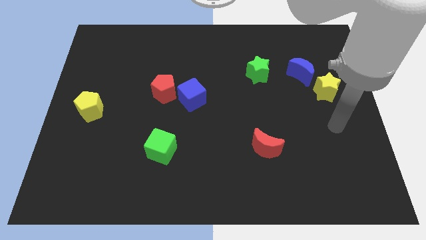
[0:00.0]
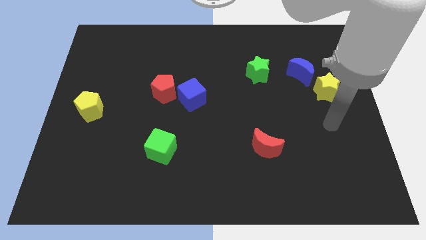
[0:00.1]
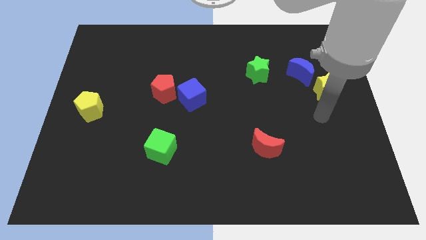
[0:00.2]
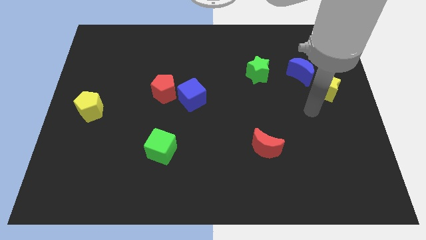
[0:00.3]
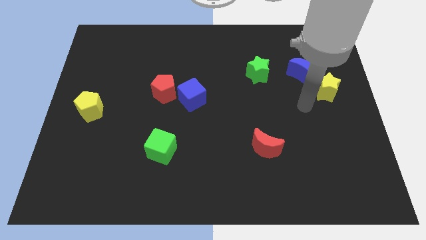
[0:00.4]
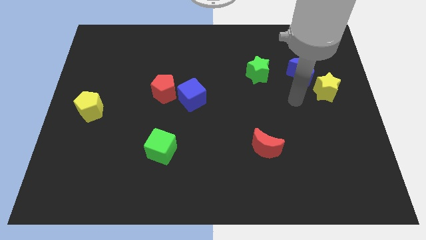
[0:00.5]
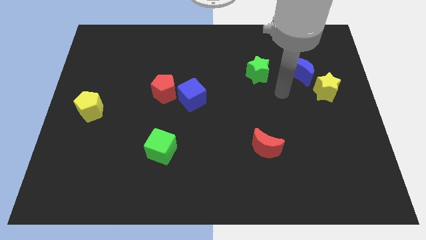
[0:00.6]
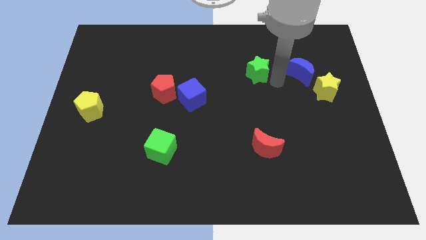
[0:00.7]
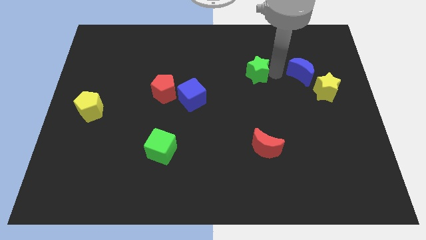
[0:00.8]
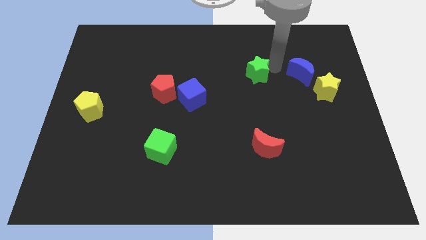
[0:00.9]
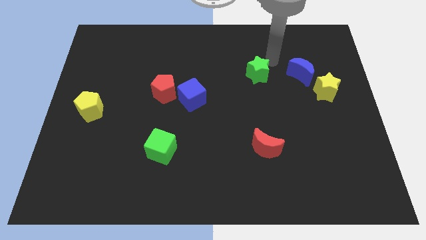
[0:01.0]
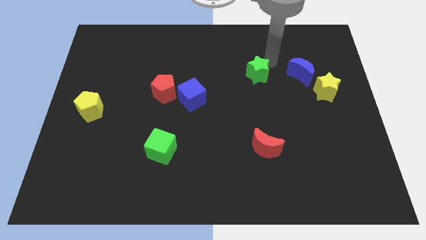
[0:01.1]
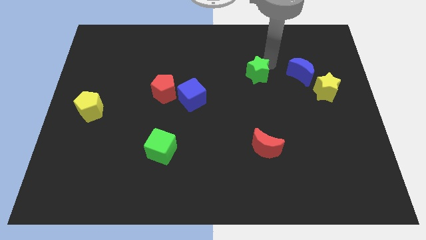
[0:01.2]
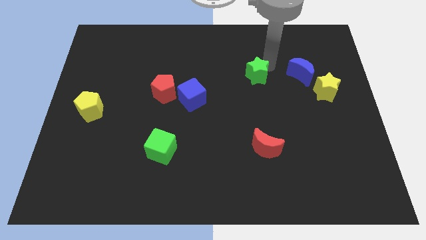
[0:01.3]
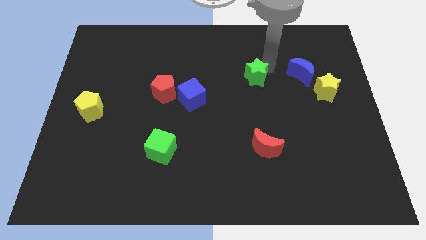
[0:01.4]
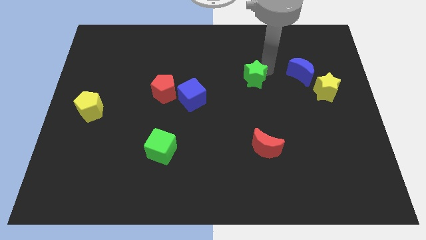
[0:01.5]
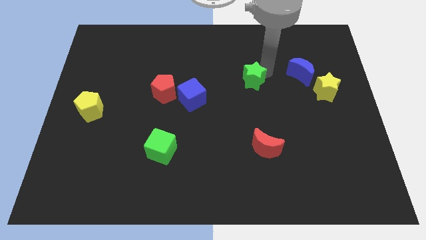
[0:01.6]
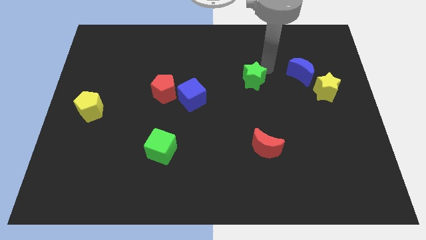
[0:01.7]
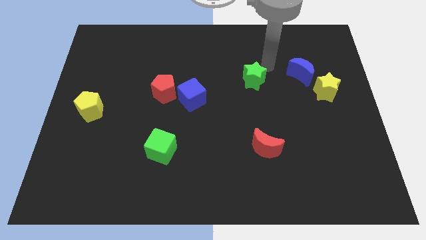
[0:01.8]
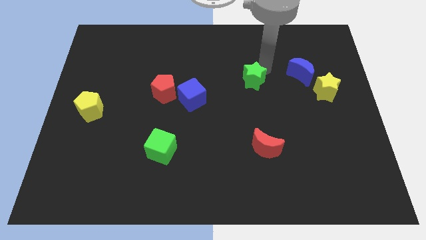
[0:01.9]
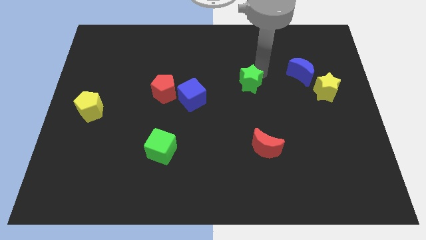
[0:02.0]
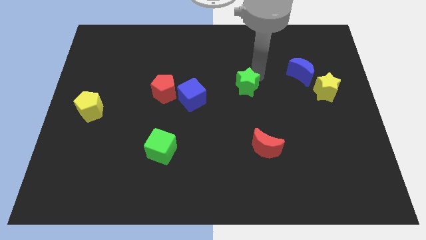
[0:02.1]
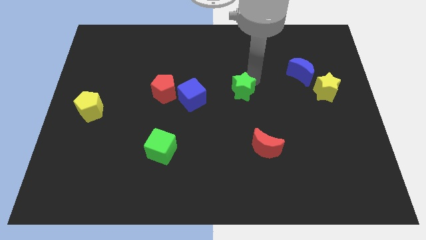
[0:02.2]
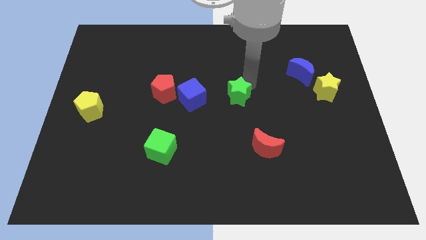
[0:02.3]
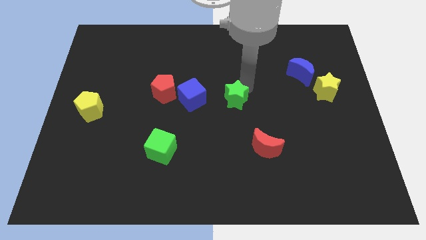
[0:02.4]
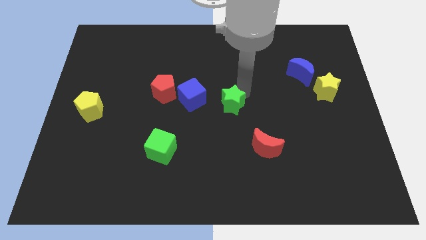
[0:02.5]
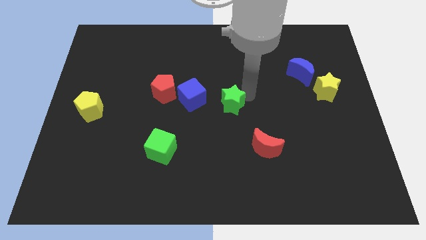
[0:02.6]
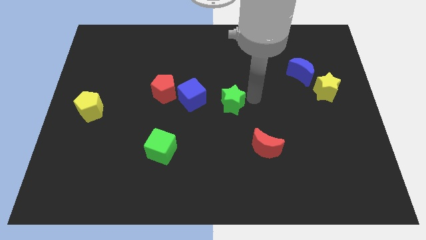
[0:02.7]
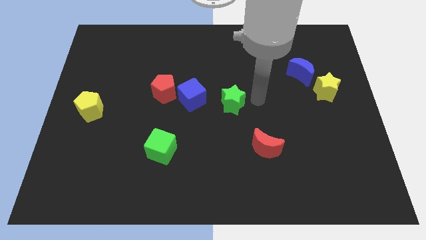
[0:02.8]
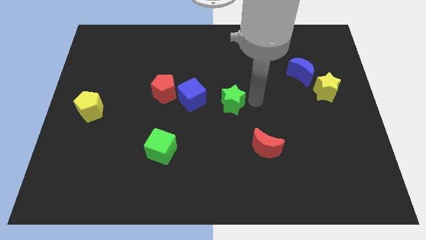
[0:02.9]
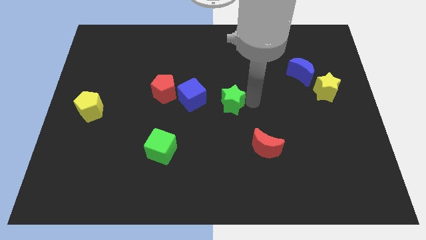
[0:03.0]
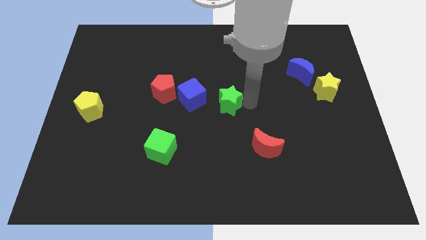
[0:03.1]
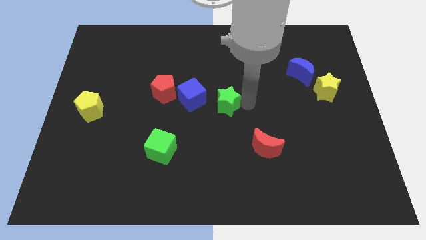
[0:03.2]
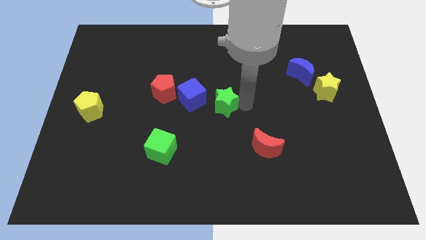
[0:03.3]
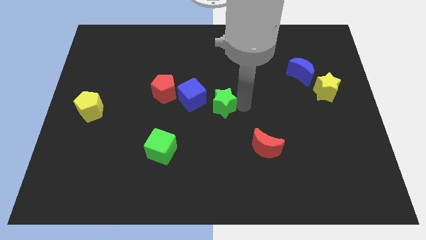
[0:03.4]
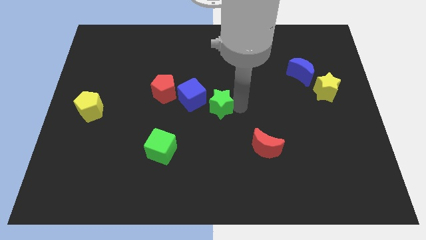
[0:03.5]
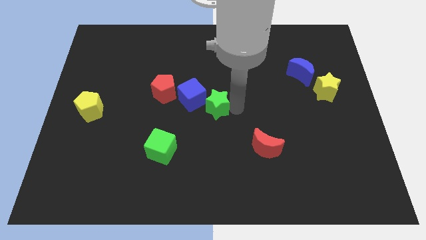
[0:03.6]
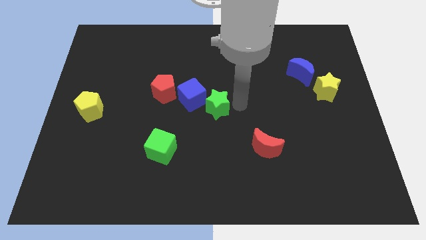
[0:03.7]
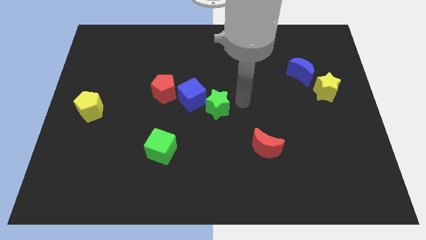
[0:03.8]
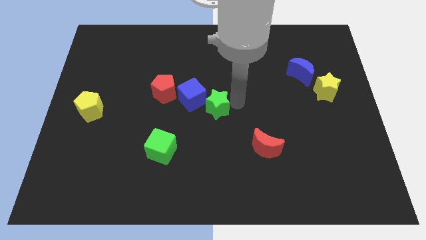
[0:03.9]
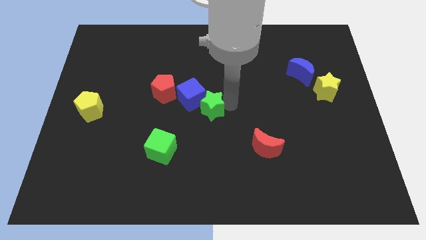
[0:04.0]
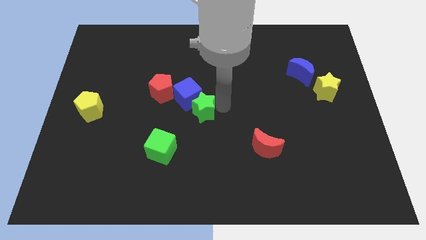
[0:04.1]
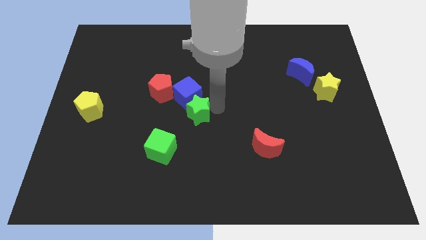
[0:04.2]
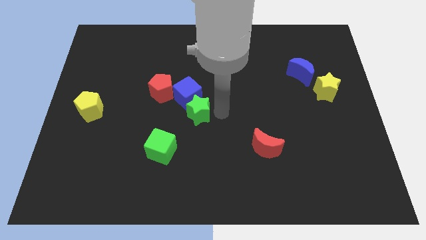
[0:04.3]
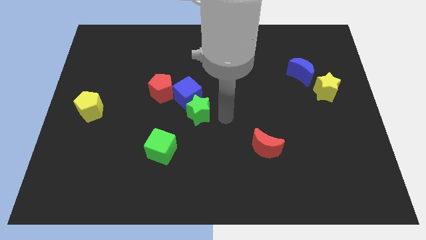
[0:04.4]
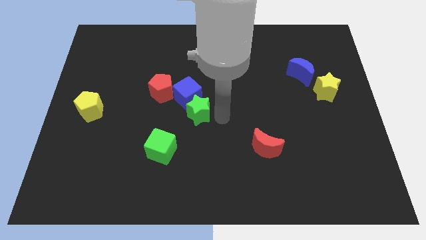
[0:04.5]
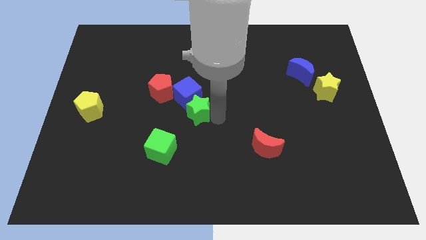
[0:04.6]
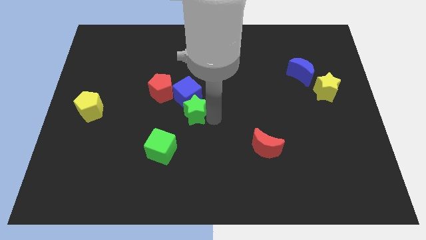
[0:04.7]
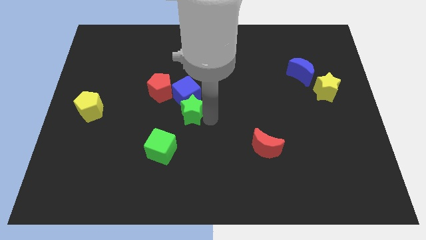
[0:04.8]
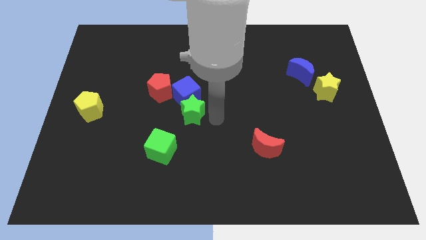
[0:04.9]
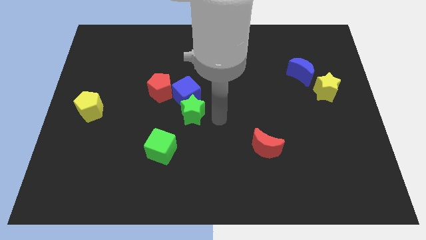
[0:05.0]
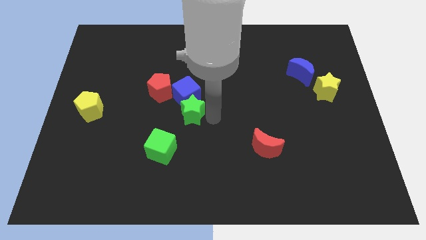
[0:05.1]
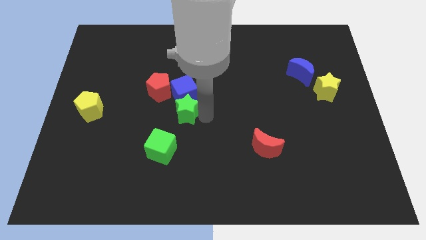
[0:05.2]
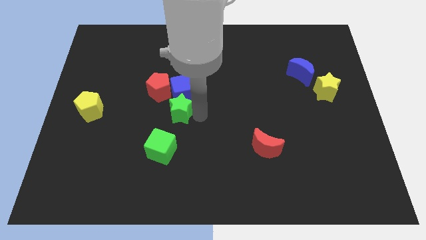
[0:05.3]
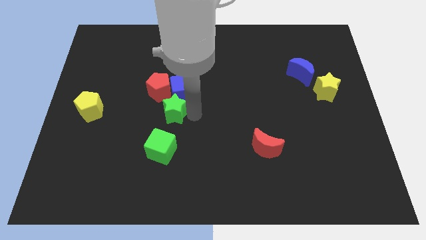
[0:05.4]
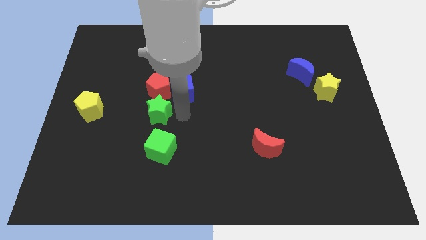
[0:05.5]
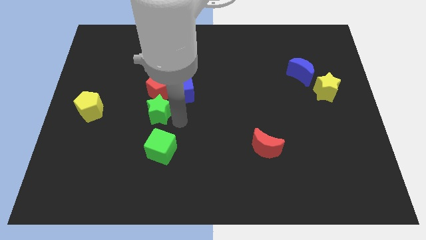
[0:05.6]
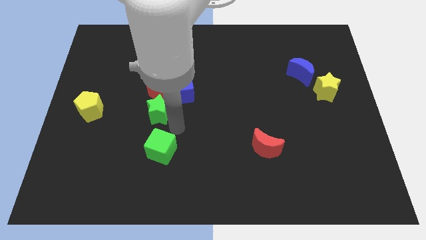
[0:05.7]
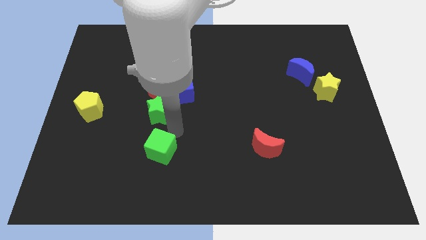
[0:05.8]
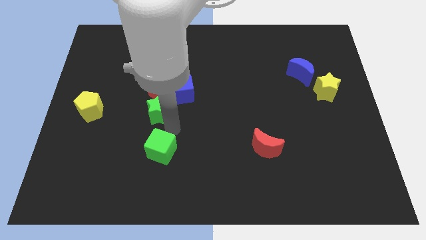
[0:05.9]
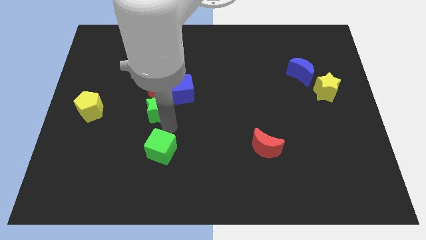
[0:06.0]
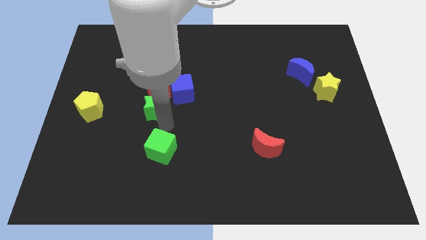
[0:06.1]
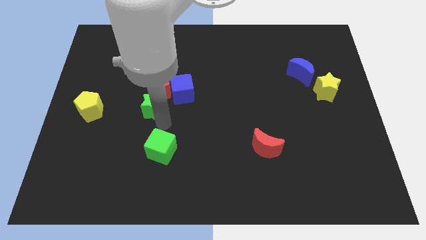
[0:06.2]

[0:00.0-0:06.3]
push the green star to the left side of the blue cube

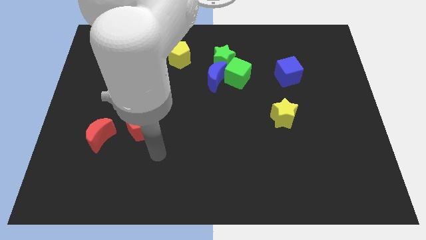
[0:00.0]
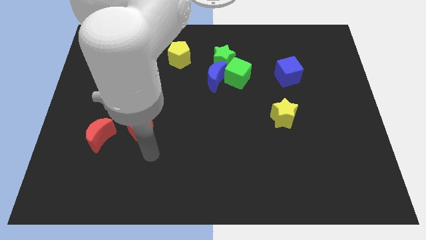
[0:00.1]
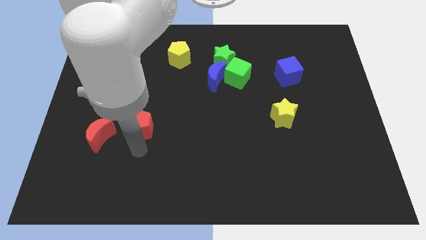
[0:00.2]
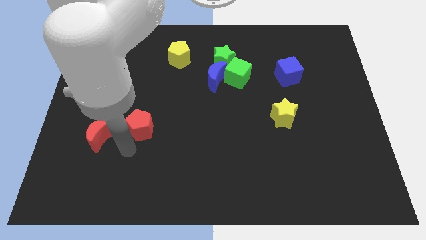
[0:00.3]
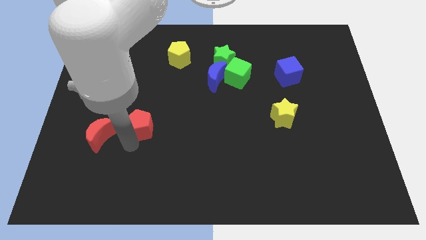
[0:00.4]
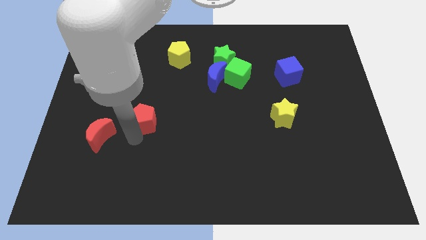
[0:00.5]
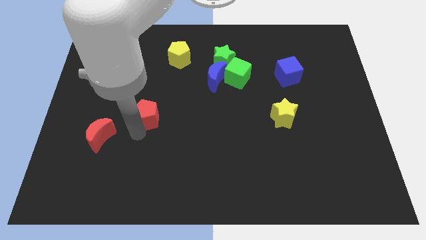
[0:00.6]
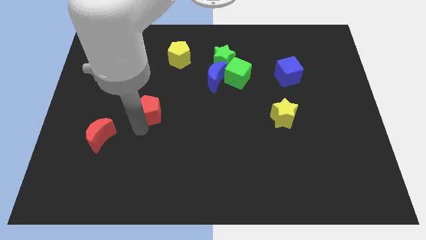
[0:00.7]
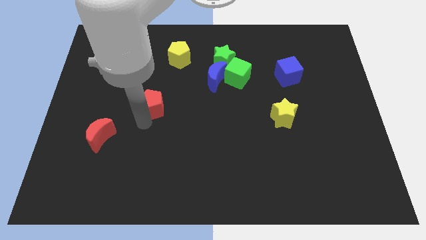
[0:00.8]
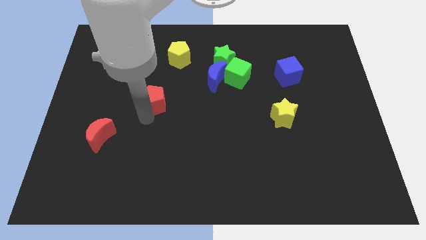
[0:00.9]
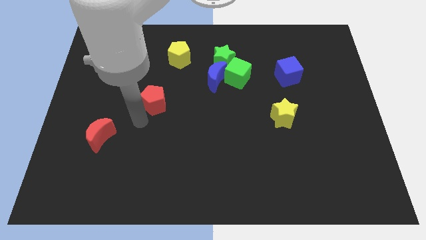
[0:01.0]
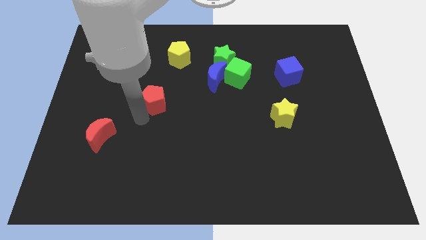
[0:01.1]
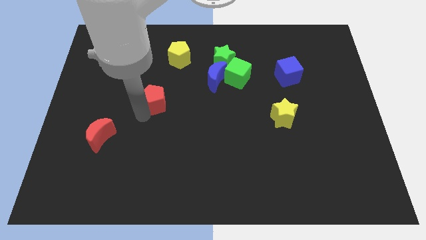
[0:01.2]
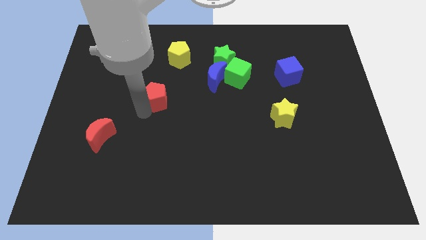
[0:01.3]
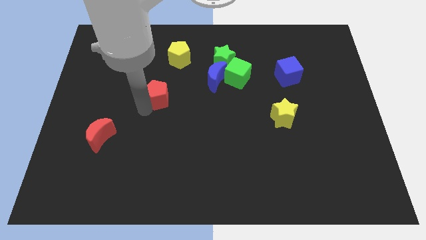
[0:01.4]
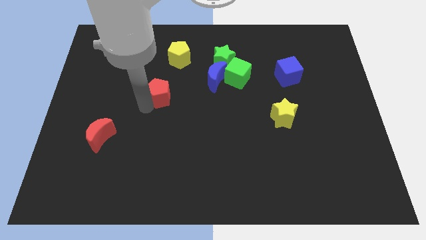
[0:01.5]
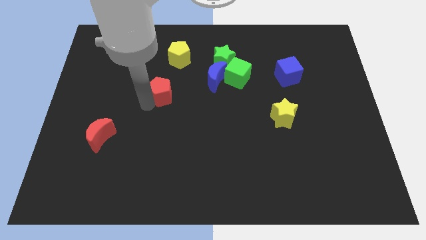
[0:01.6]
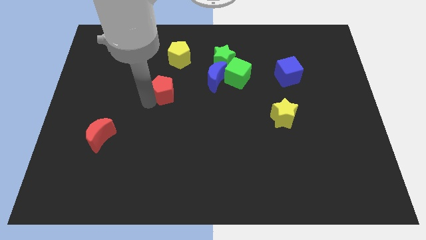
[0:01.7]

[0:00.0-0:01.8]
move the red pentagon to the left of the blue moon
